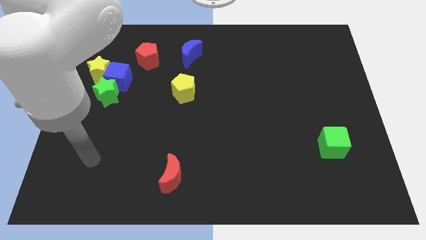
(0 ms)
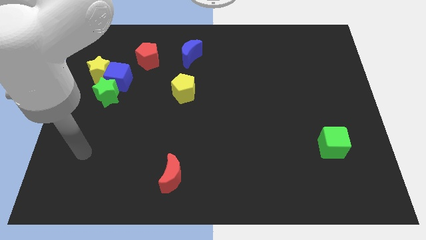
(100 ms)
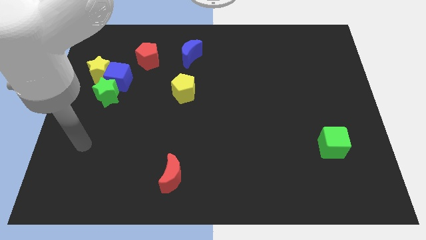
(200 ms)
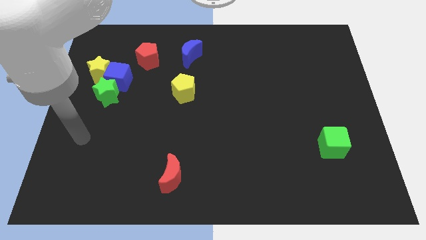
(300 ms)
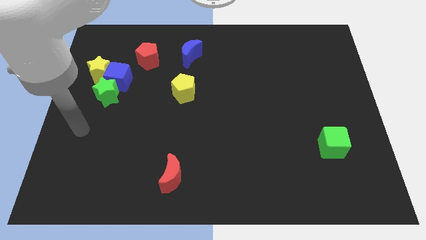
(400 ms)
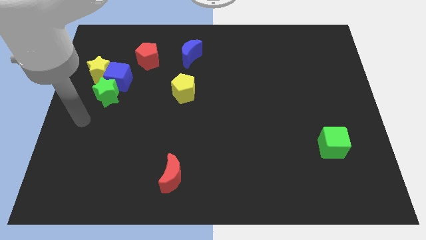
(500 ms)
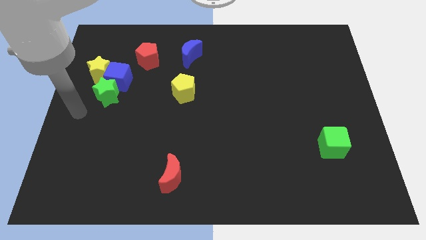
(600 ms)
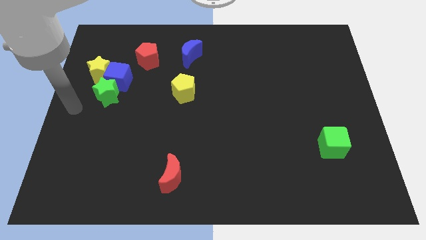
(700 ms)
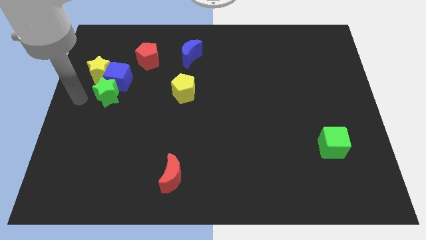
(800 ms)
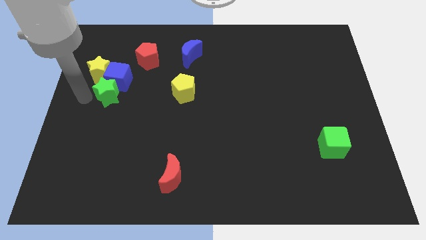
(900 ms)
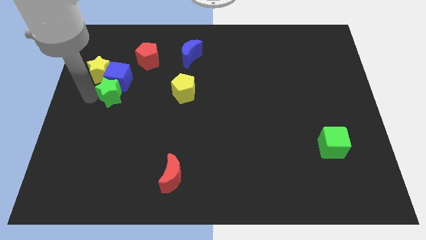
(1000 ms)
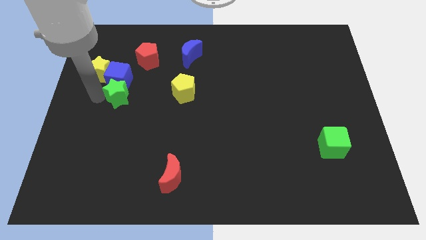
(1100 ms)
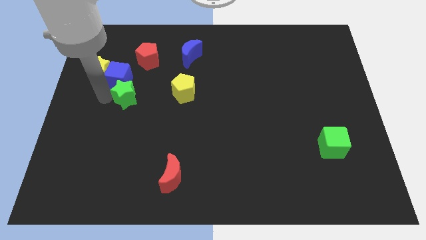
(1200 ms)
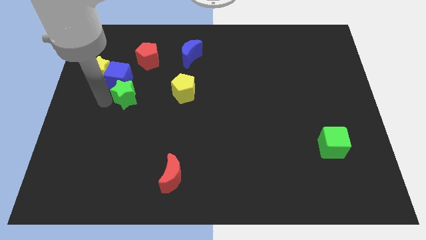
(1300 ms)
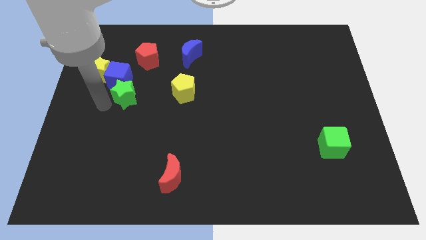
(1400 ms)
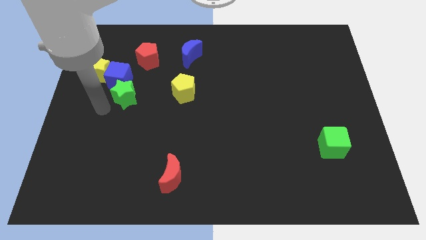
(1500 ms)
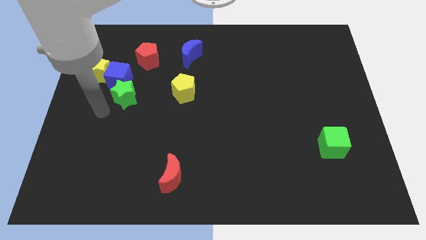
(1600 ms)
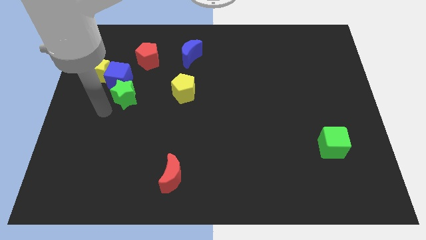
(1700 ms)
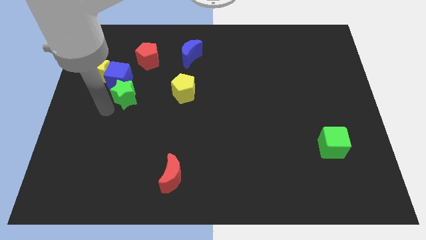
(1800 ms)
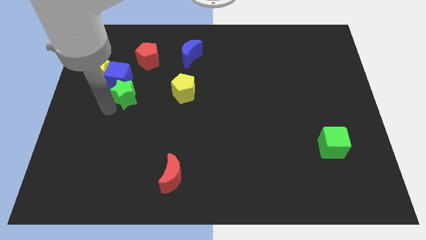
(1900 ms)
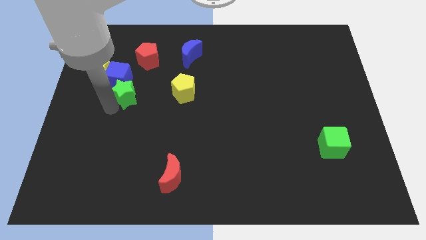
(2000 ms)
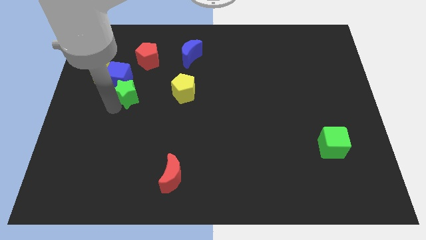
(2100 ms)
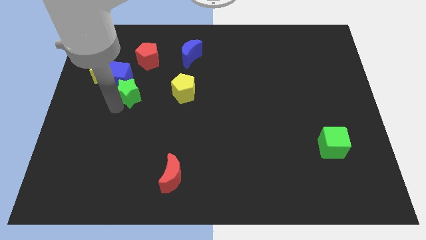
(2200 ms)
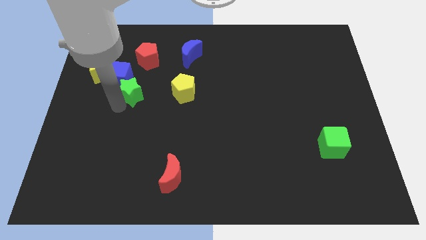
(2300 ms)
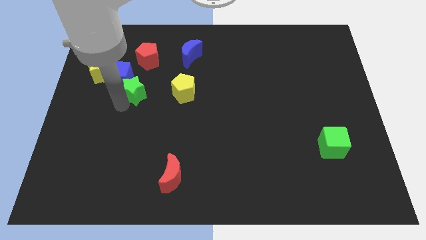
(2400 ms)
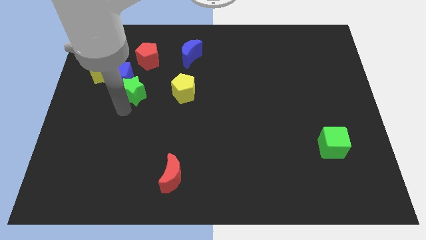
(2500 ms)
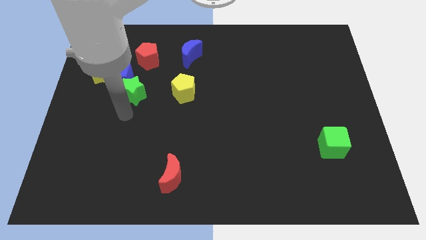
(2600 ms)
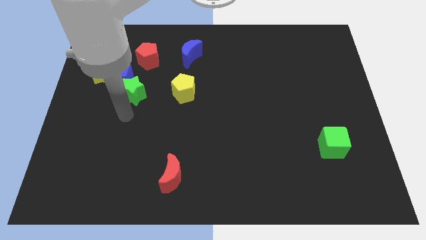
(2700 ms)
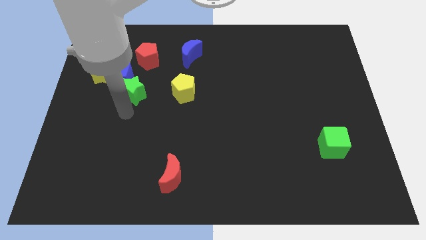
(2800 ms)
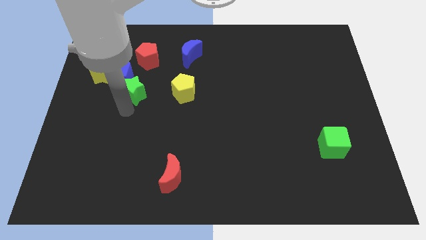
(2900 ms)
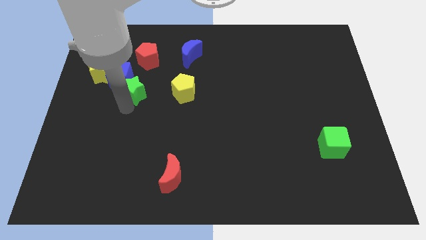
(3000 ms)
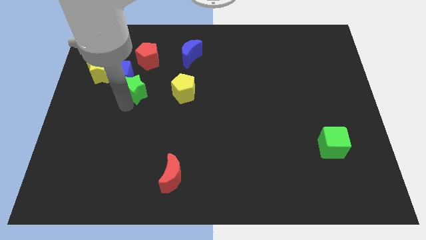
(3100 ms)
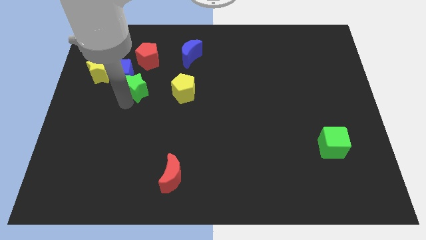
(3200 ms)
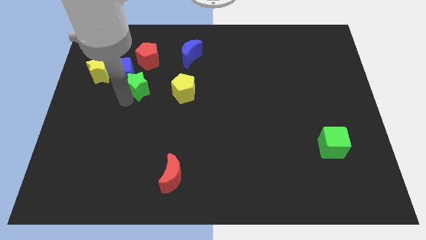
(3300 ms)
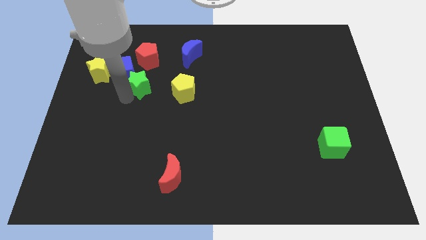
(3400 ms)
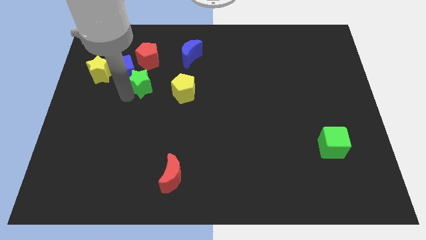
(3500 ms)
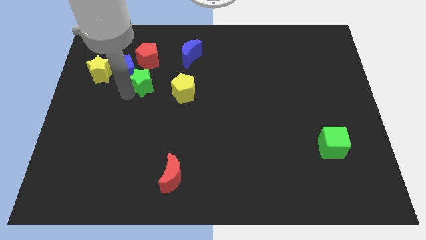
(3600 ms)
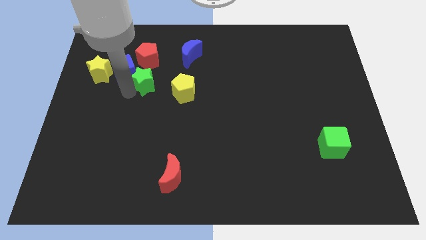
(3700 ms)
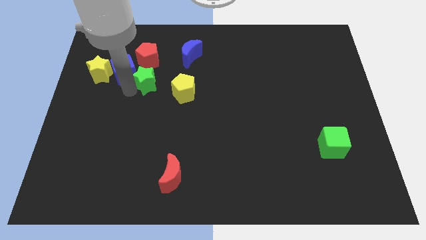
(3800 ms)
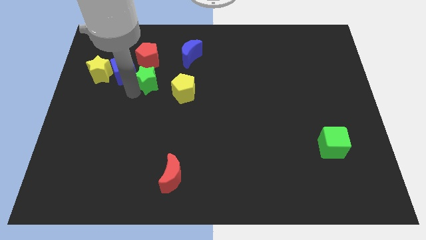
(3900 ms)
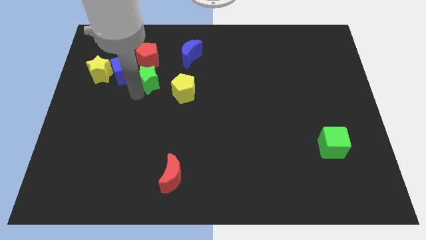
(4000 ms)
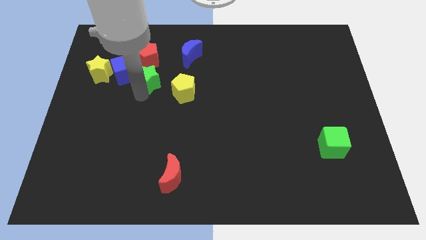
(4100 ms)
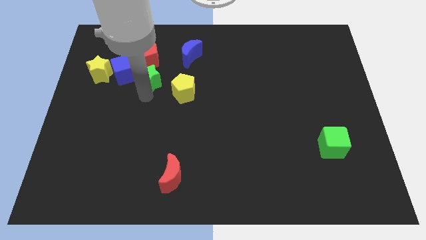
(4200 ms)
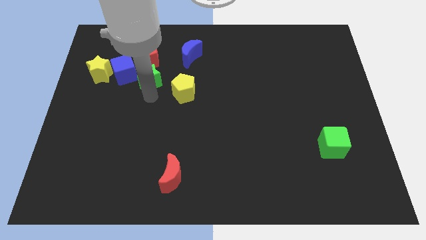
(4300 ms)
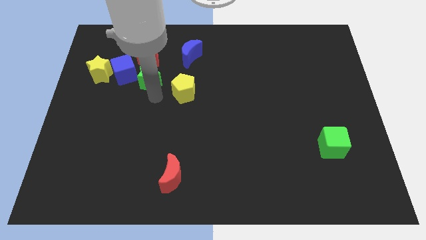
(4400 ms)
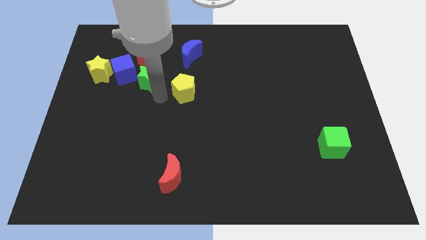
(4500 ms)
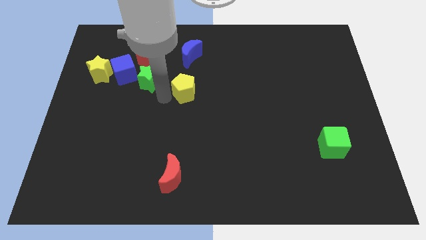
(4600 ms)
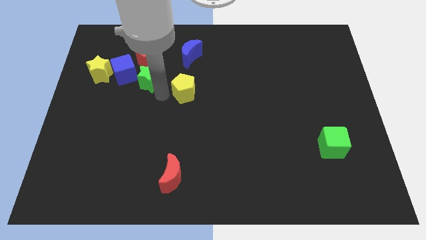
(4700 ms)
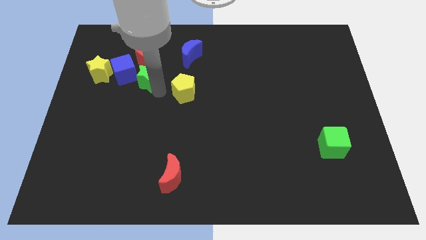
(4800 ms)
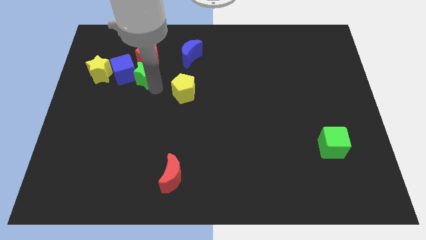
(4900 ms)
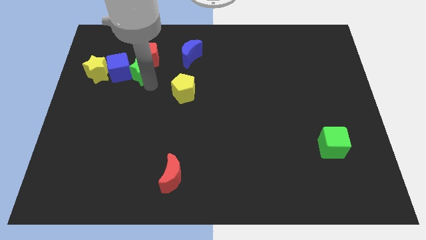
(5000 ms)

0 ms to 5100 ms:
slide the green star close to the red pentagon
